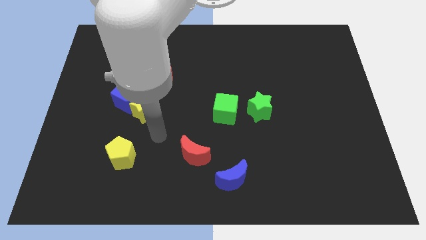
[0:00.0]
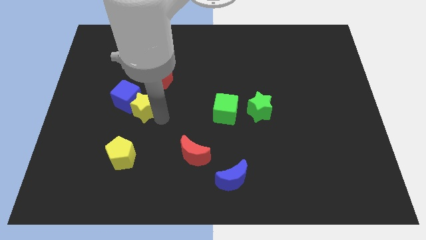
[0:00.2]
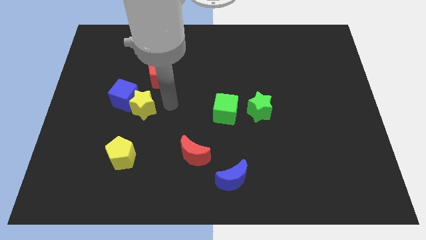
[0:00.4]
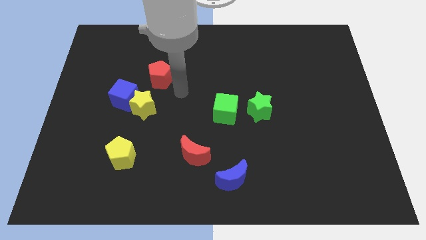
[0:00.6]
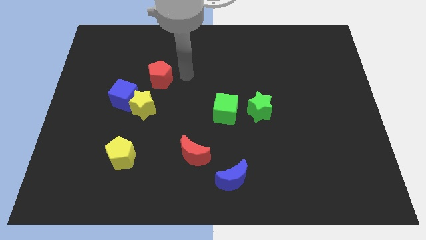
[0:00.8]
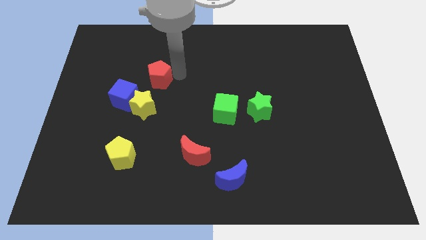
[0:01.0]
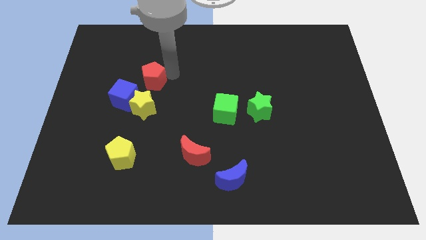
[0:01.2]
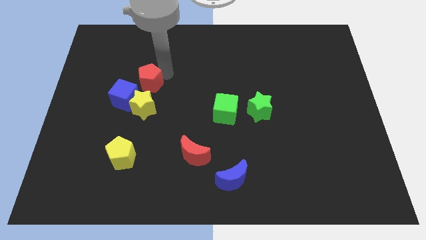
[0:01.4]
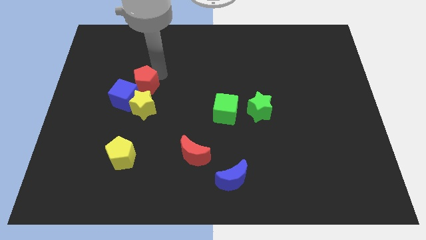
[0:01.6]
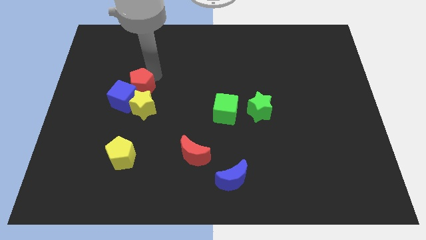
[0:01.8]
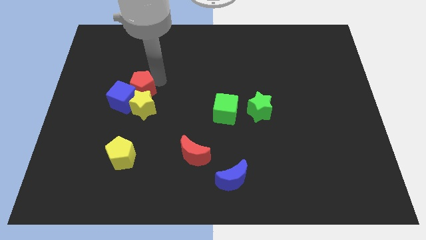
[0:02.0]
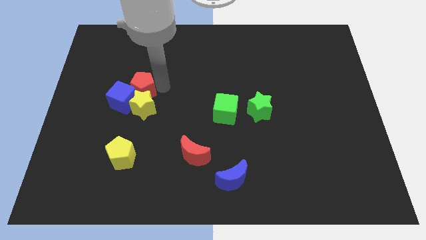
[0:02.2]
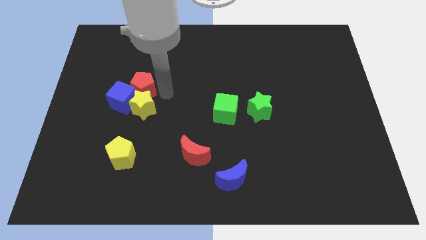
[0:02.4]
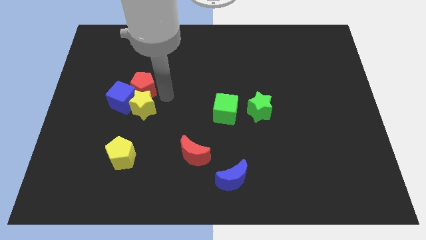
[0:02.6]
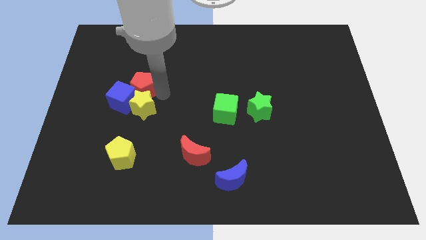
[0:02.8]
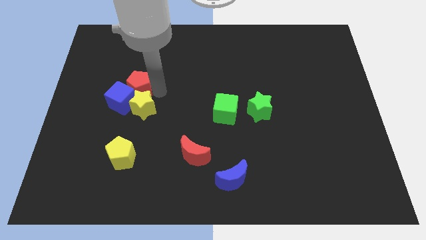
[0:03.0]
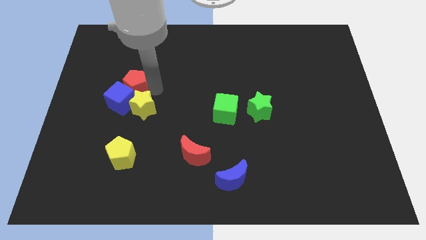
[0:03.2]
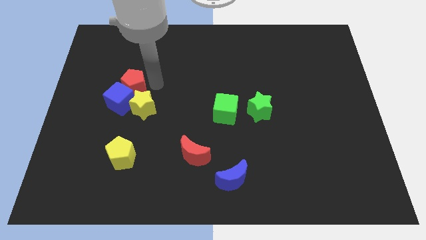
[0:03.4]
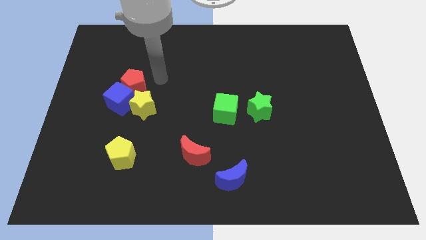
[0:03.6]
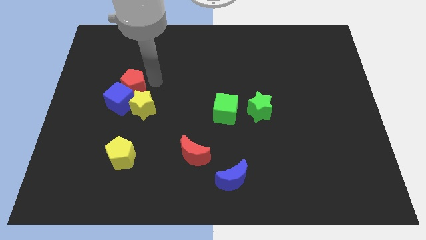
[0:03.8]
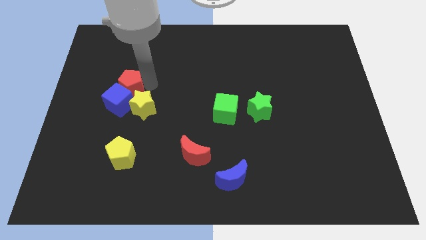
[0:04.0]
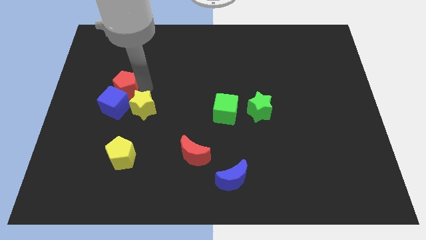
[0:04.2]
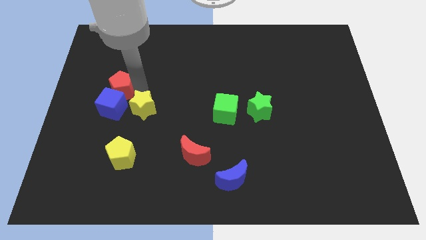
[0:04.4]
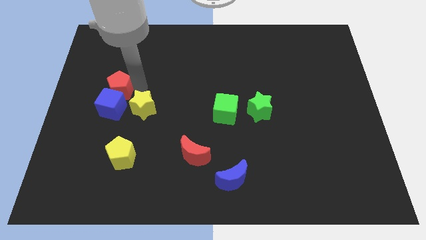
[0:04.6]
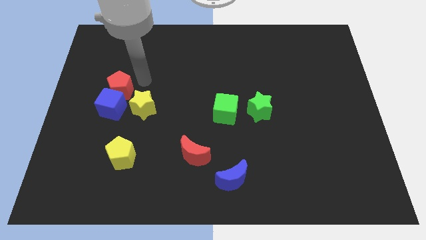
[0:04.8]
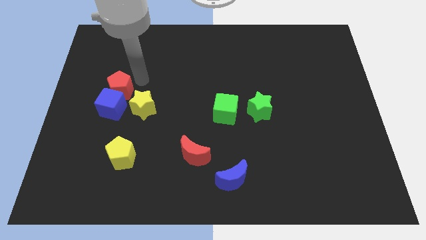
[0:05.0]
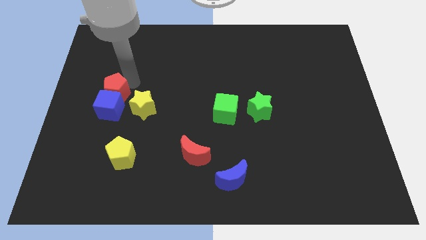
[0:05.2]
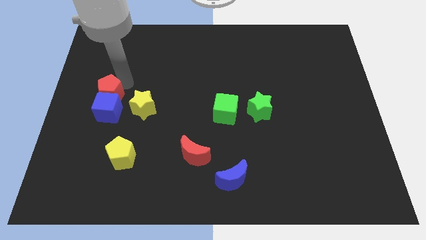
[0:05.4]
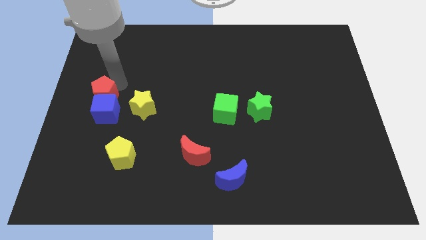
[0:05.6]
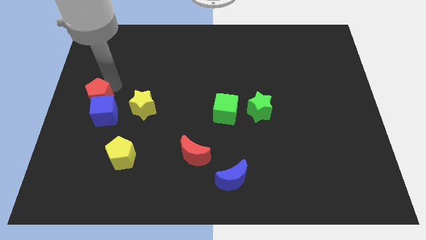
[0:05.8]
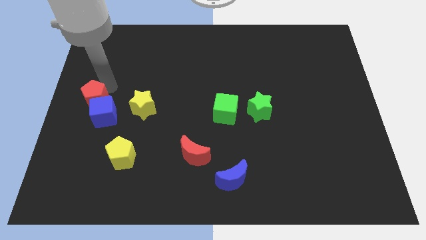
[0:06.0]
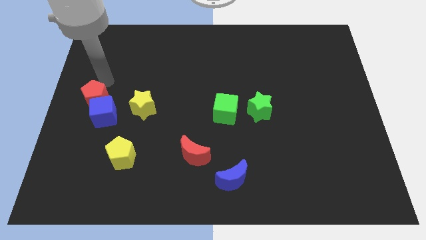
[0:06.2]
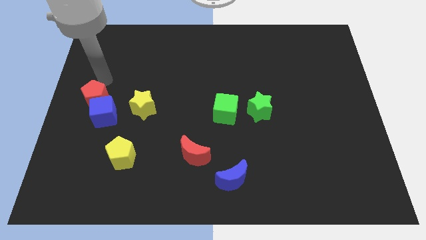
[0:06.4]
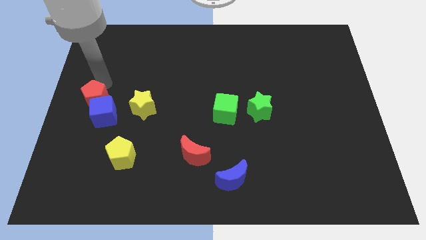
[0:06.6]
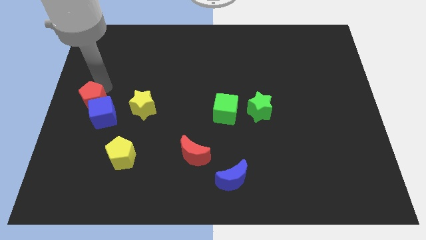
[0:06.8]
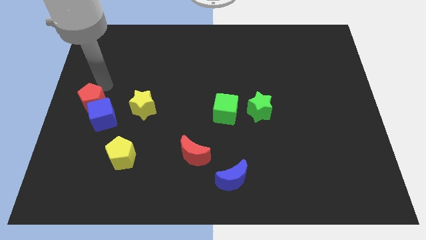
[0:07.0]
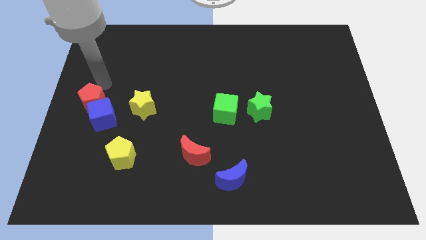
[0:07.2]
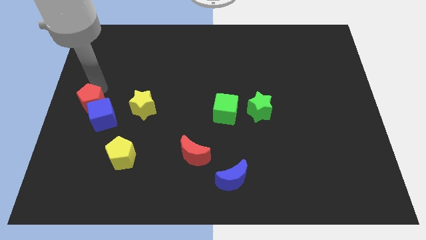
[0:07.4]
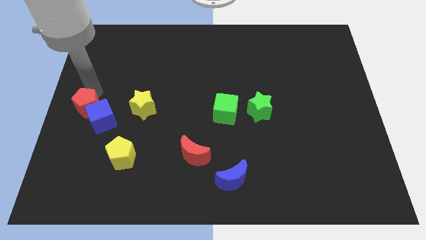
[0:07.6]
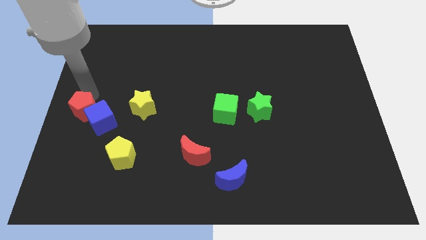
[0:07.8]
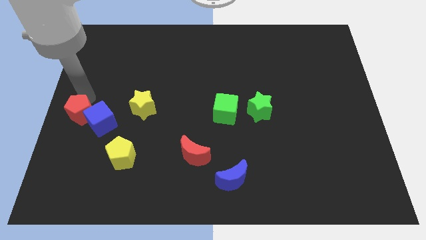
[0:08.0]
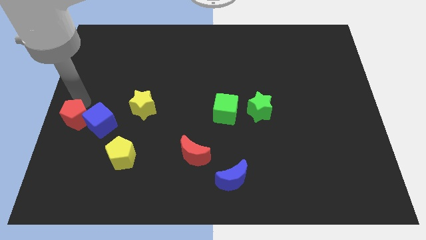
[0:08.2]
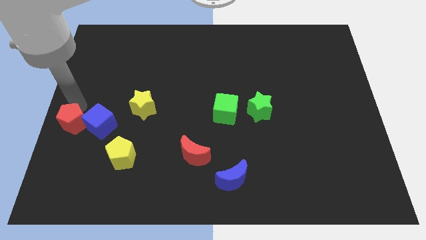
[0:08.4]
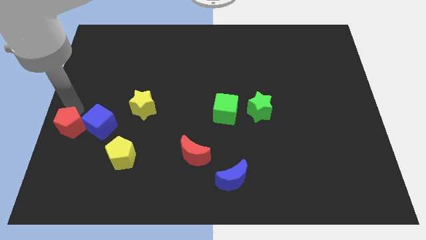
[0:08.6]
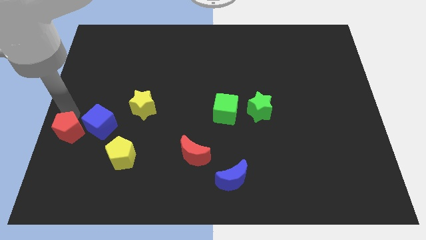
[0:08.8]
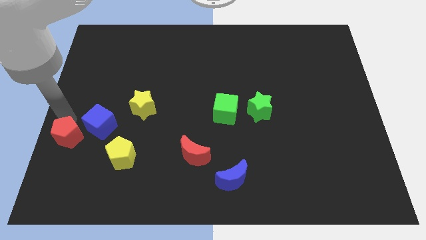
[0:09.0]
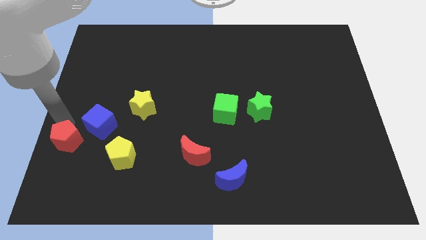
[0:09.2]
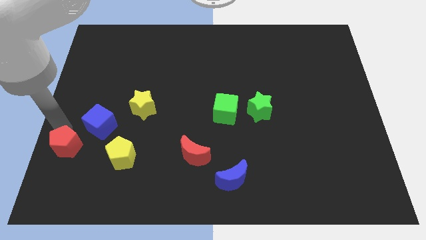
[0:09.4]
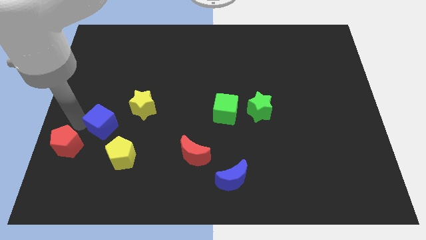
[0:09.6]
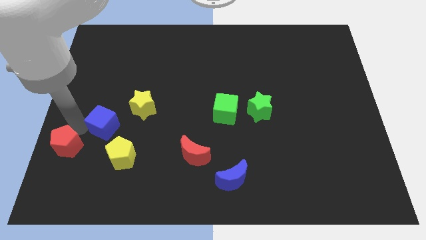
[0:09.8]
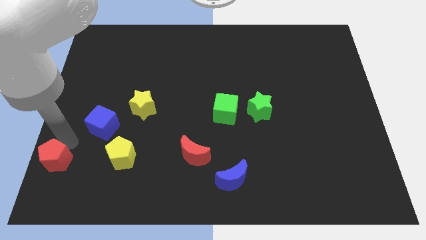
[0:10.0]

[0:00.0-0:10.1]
move the red pentagon to the bottom left corner

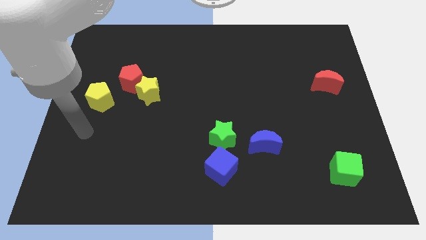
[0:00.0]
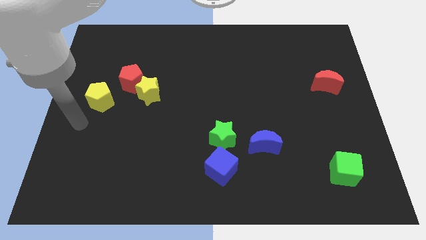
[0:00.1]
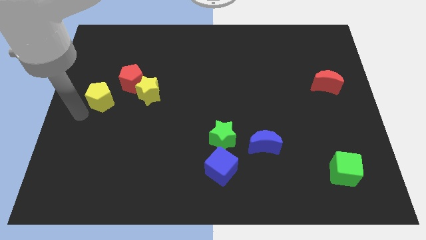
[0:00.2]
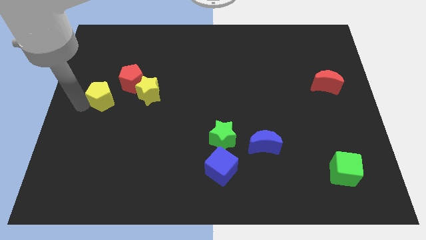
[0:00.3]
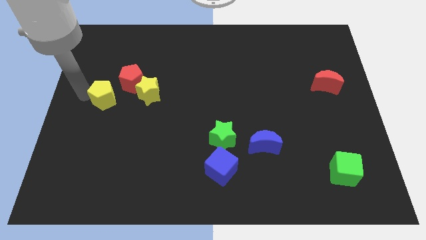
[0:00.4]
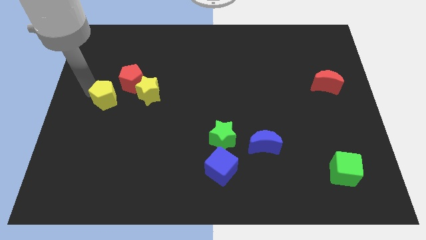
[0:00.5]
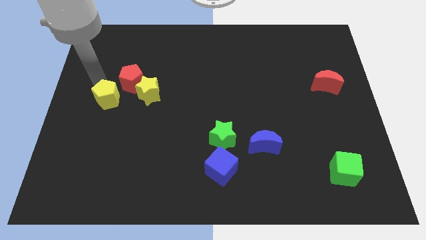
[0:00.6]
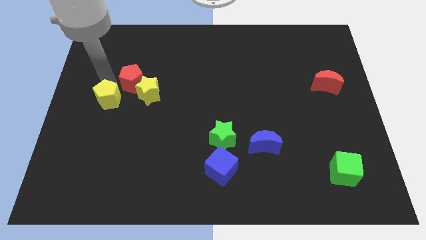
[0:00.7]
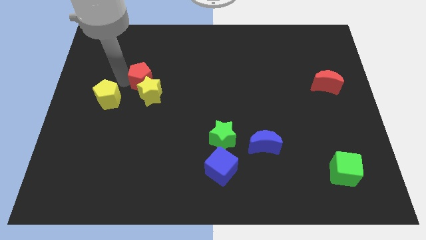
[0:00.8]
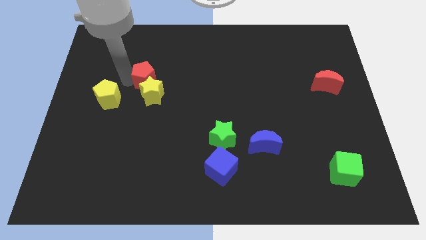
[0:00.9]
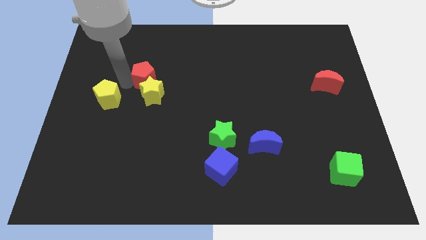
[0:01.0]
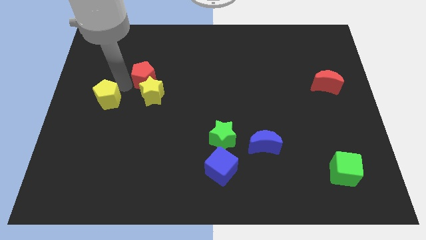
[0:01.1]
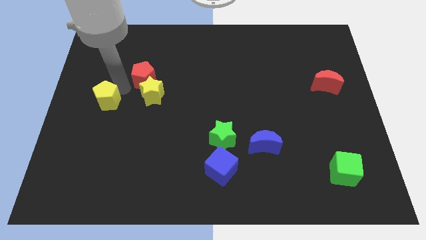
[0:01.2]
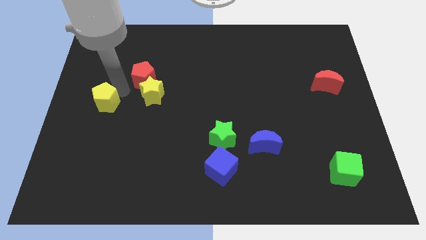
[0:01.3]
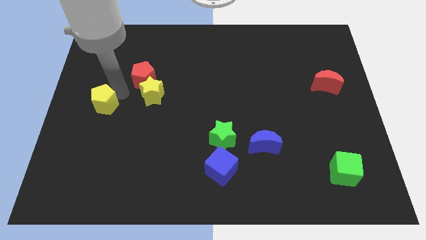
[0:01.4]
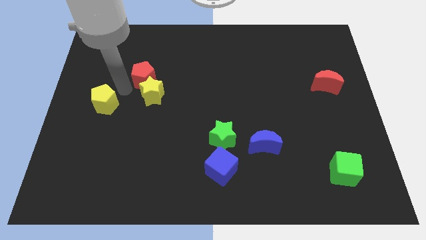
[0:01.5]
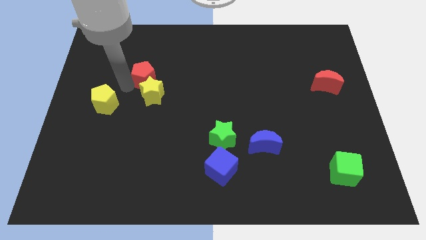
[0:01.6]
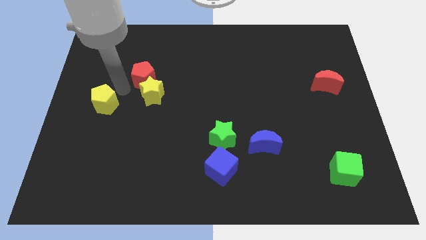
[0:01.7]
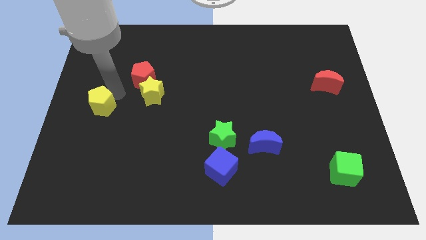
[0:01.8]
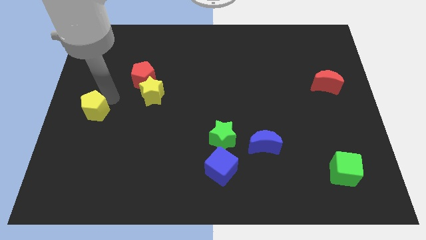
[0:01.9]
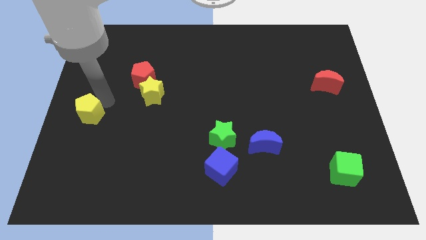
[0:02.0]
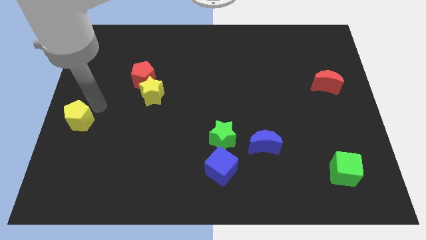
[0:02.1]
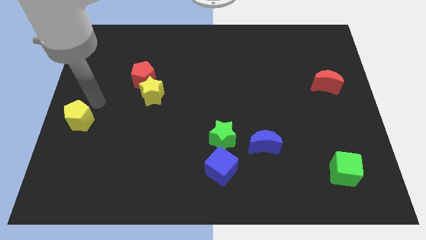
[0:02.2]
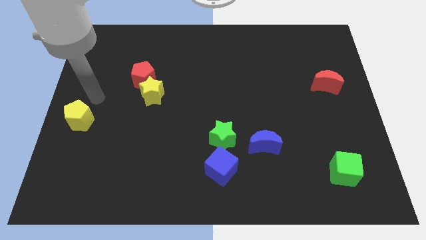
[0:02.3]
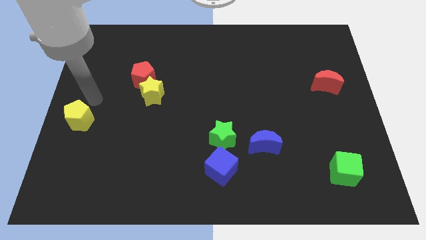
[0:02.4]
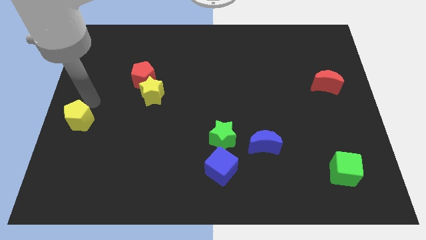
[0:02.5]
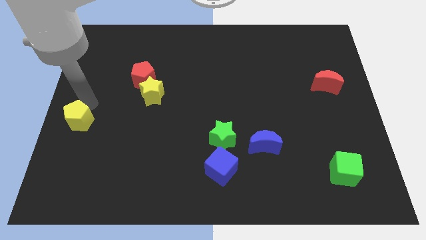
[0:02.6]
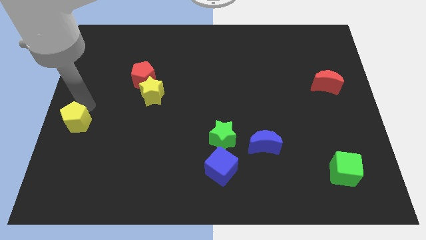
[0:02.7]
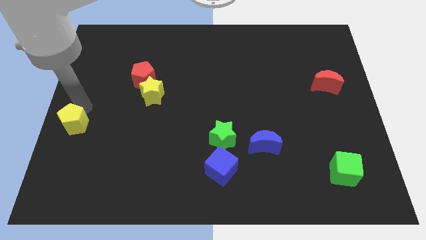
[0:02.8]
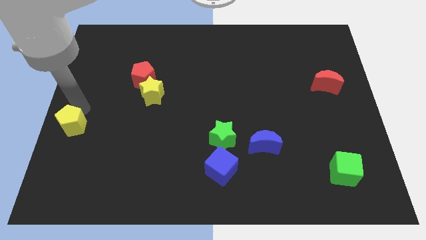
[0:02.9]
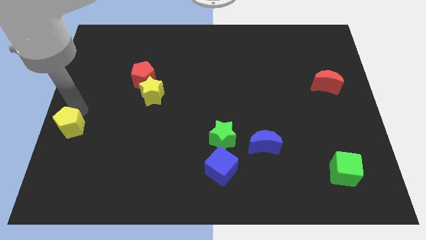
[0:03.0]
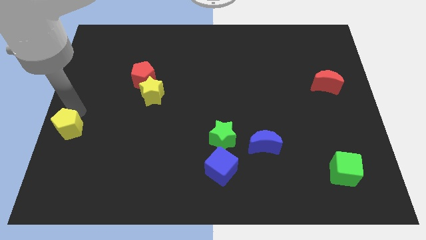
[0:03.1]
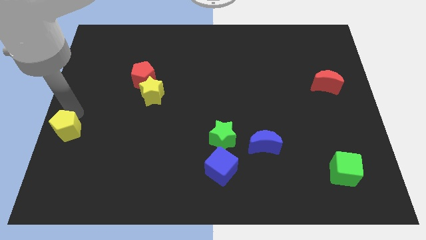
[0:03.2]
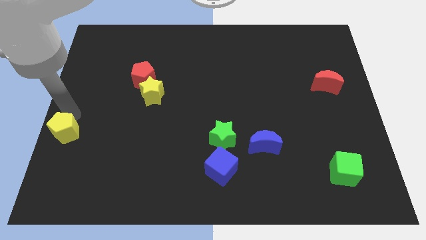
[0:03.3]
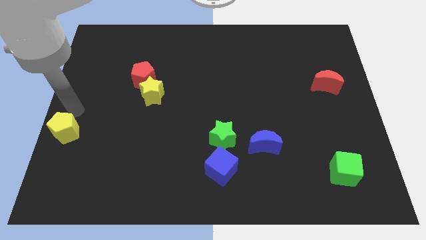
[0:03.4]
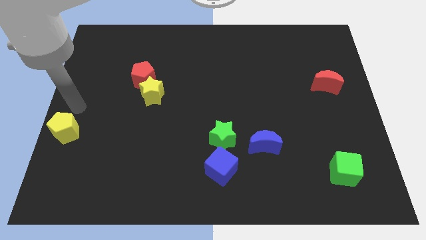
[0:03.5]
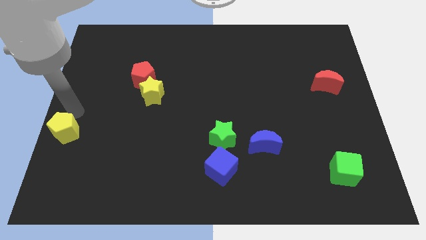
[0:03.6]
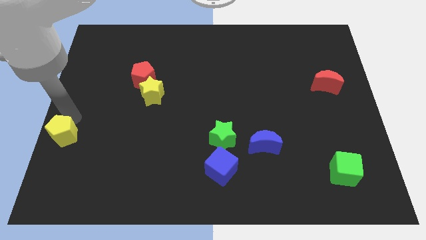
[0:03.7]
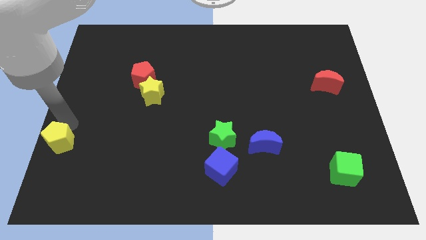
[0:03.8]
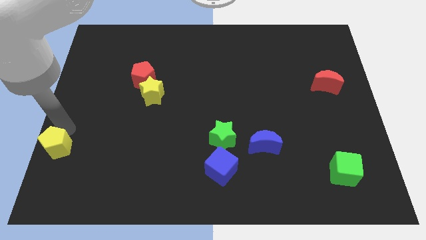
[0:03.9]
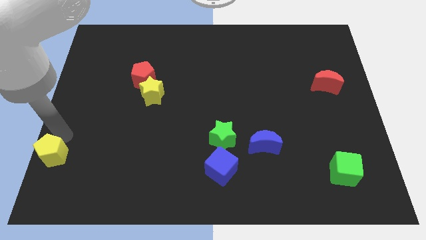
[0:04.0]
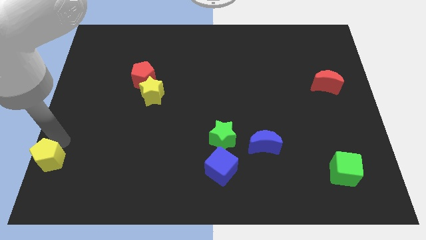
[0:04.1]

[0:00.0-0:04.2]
slide the yellow pentagon to the bottom left
